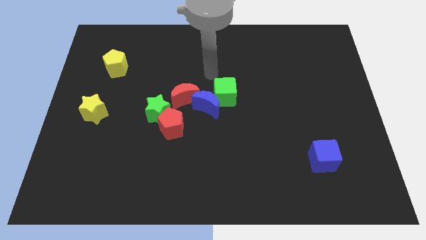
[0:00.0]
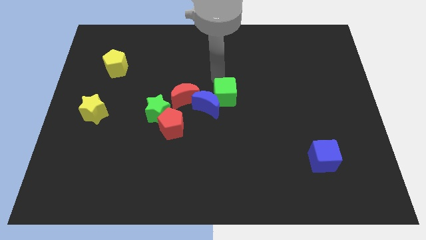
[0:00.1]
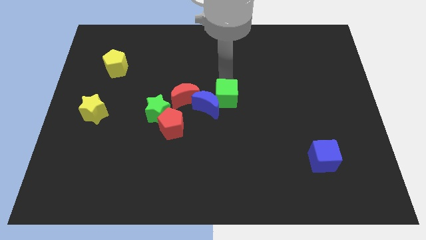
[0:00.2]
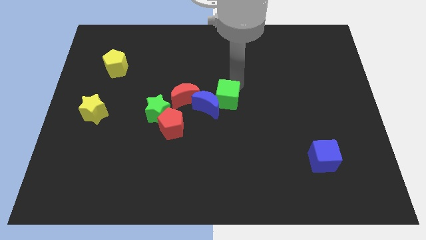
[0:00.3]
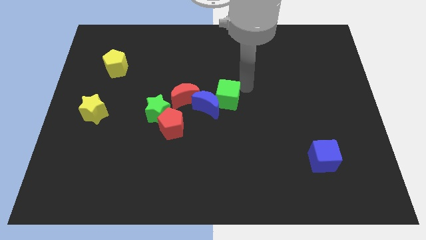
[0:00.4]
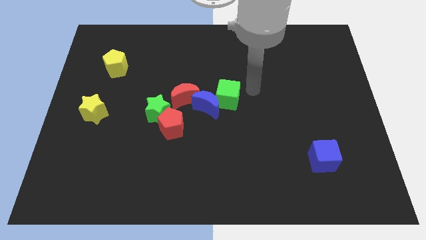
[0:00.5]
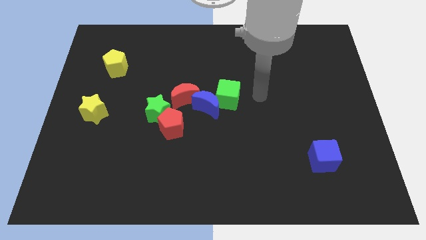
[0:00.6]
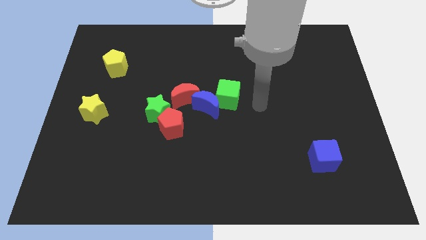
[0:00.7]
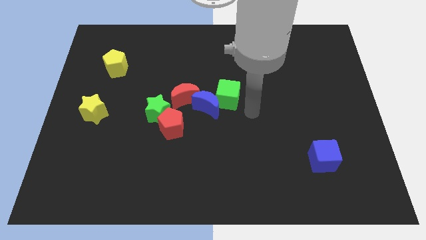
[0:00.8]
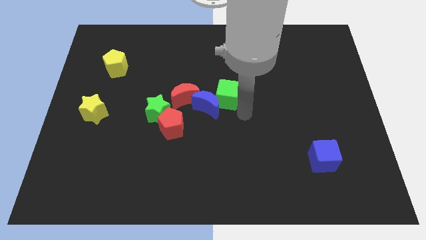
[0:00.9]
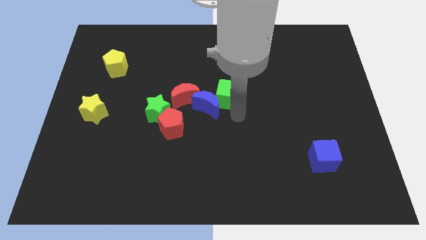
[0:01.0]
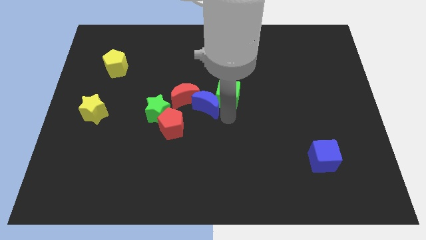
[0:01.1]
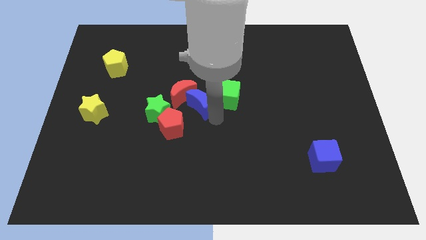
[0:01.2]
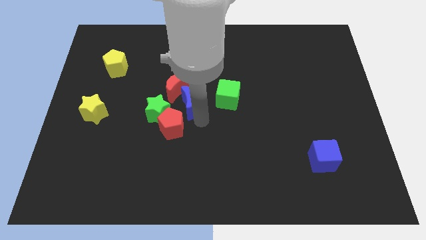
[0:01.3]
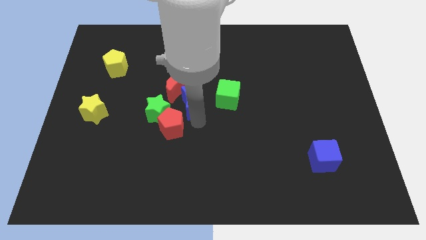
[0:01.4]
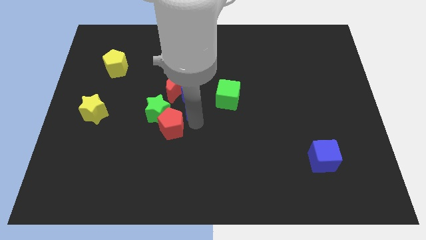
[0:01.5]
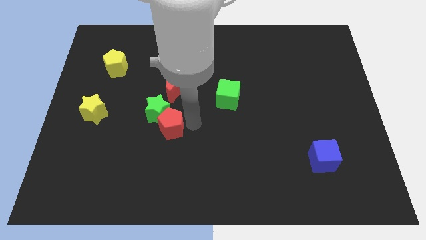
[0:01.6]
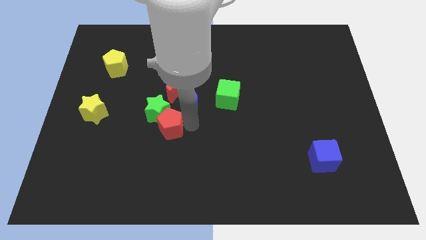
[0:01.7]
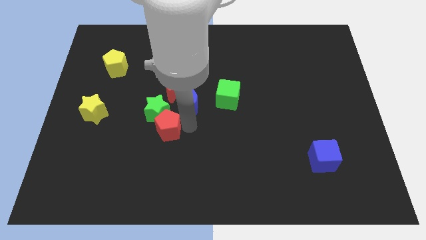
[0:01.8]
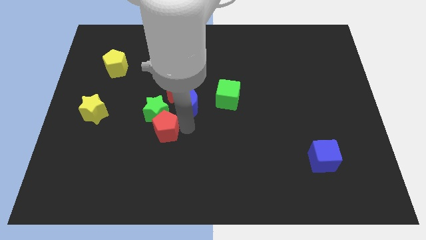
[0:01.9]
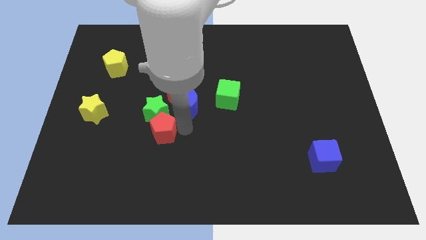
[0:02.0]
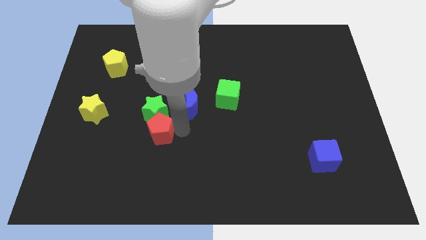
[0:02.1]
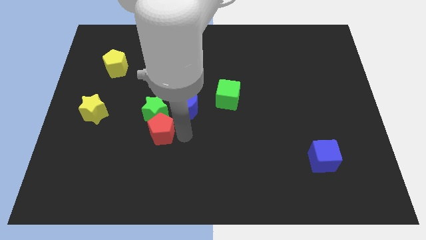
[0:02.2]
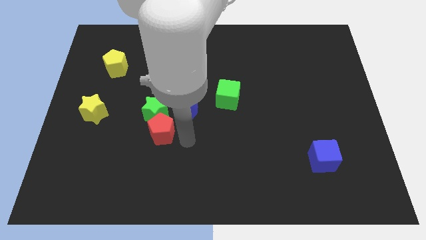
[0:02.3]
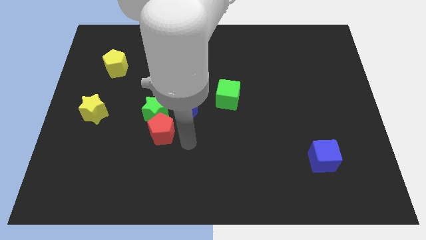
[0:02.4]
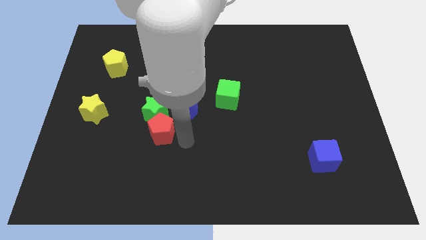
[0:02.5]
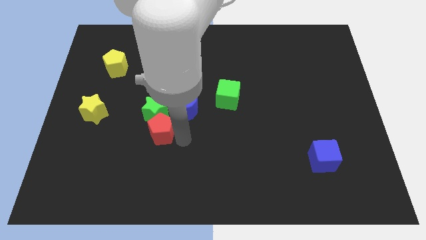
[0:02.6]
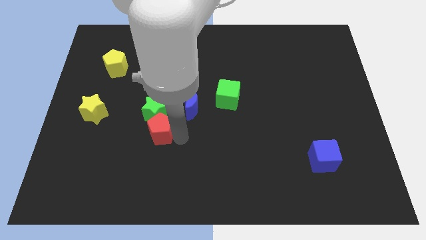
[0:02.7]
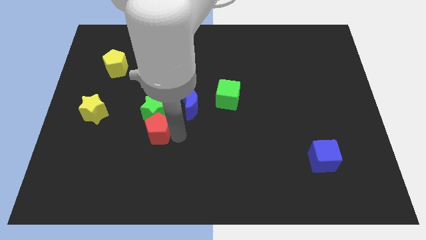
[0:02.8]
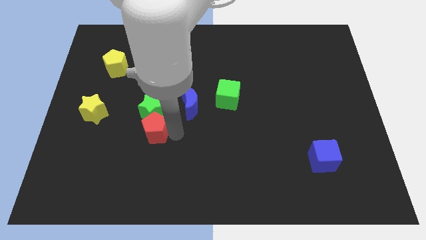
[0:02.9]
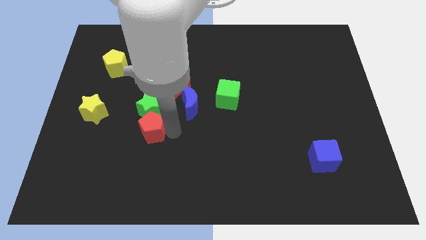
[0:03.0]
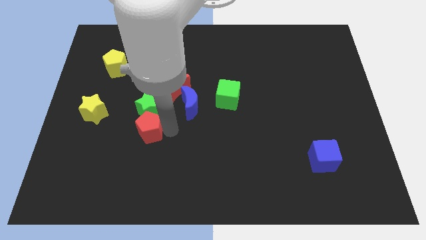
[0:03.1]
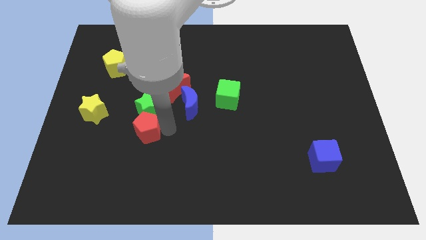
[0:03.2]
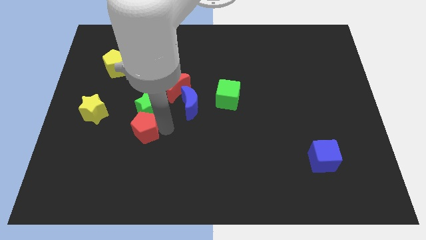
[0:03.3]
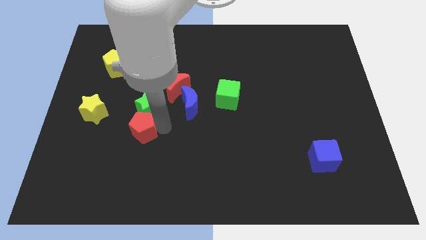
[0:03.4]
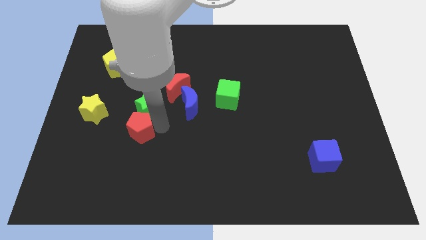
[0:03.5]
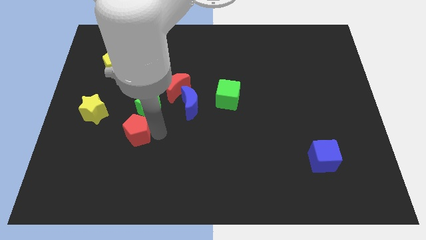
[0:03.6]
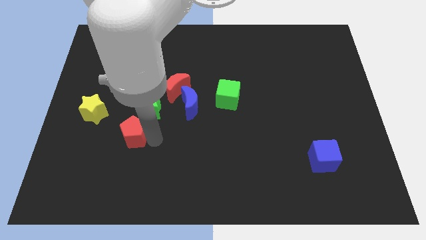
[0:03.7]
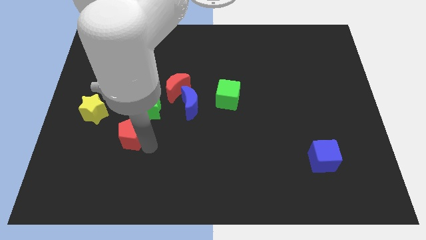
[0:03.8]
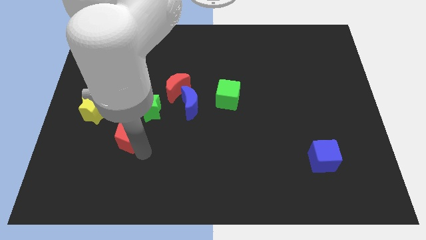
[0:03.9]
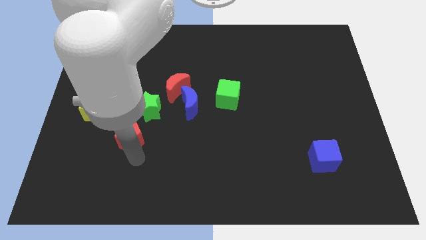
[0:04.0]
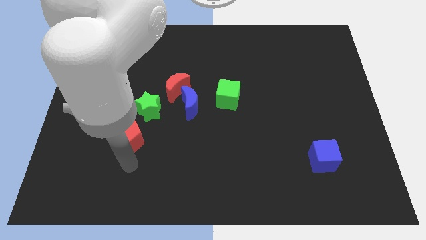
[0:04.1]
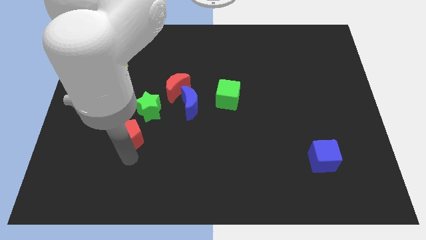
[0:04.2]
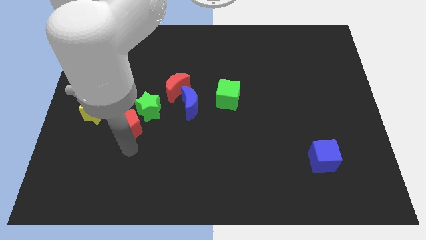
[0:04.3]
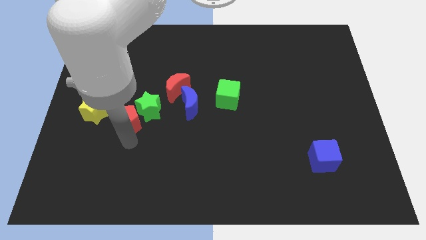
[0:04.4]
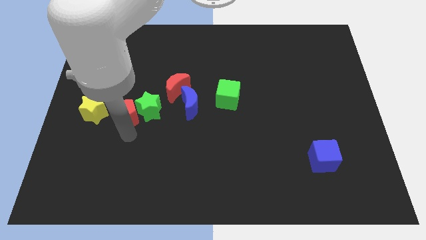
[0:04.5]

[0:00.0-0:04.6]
slide the red pentagon a little bit up and left diagonally

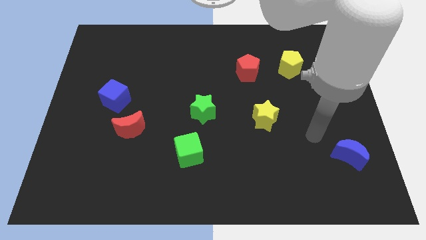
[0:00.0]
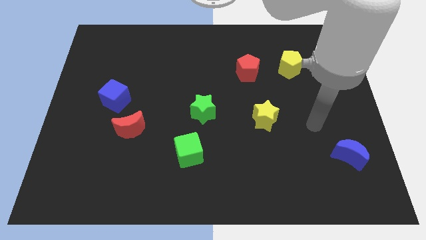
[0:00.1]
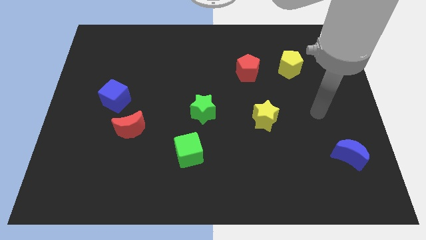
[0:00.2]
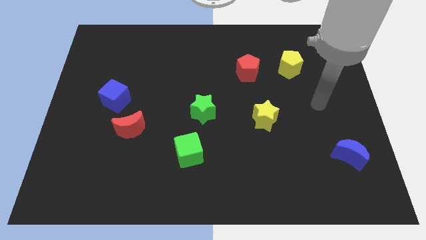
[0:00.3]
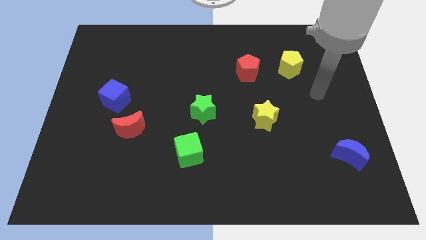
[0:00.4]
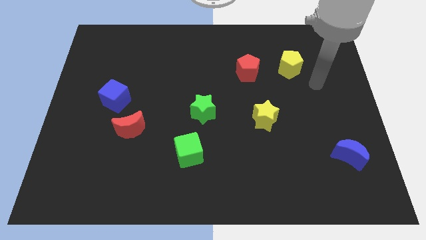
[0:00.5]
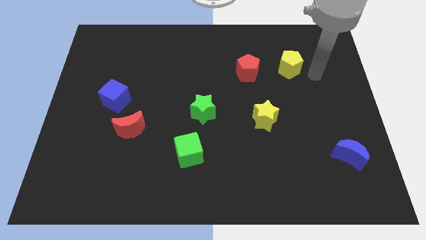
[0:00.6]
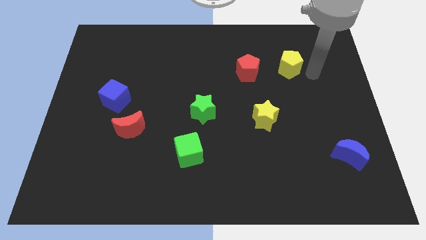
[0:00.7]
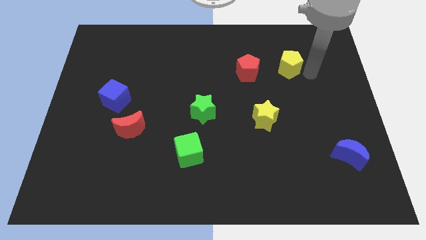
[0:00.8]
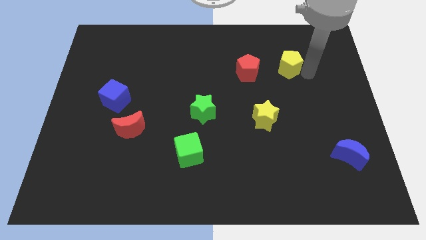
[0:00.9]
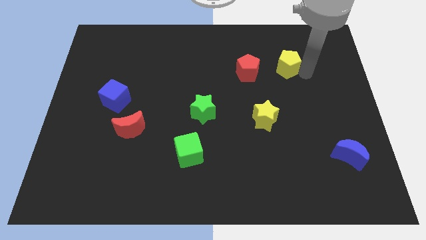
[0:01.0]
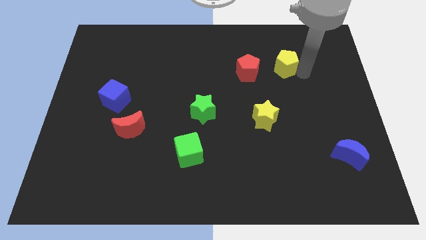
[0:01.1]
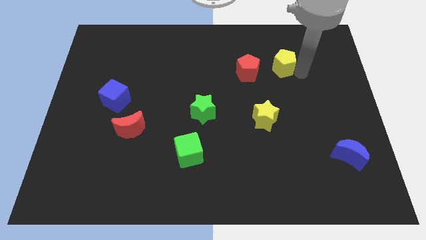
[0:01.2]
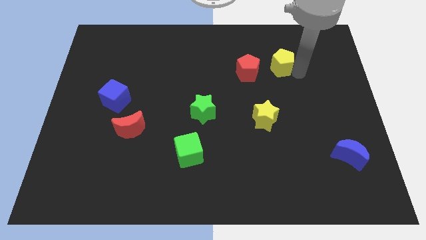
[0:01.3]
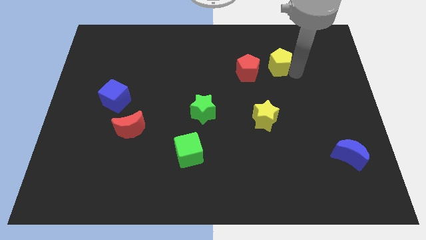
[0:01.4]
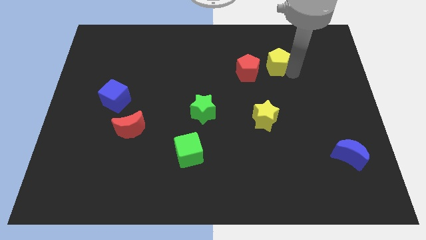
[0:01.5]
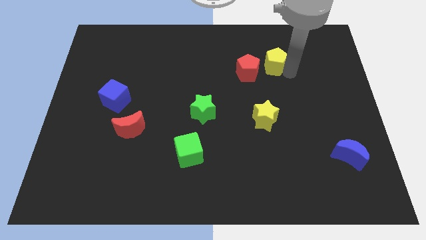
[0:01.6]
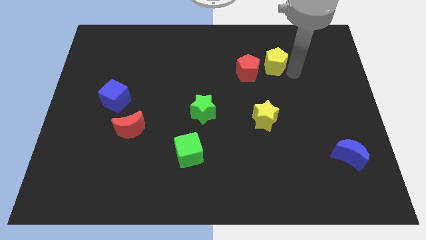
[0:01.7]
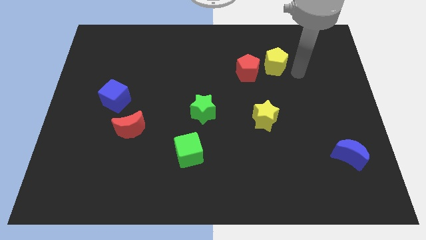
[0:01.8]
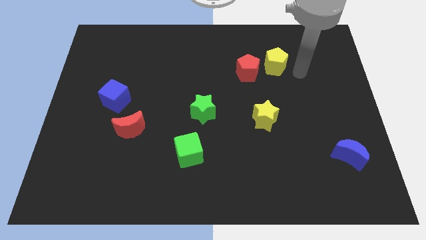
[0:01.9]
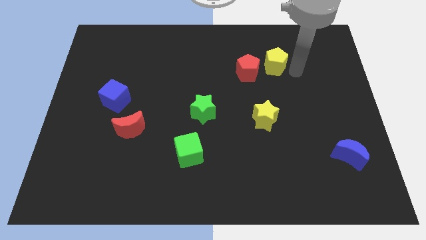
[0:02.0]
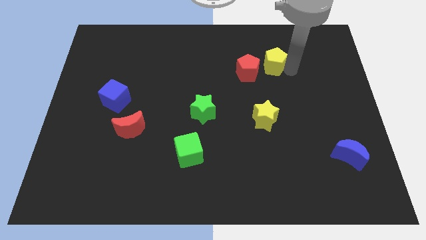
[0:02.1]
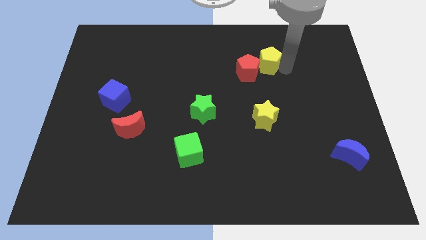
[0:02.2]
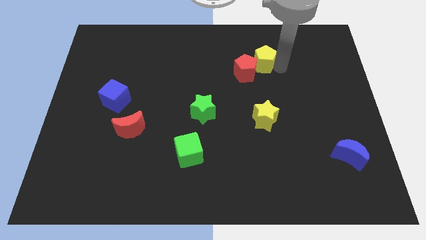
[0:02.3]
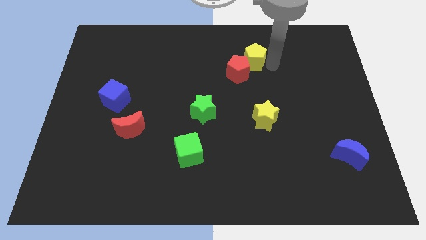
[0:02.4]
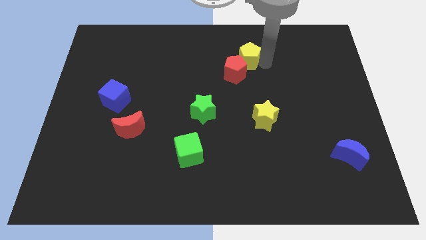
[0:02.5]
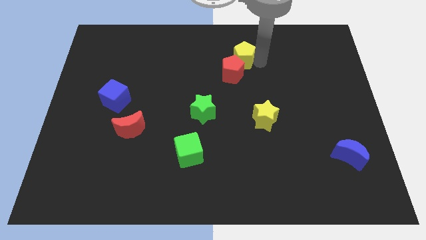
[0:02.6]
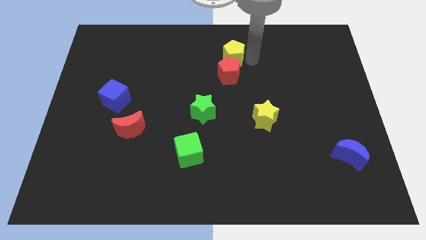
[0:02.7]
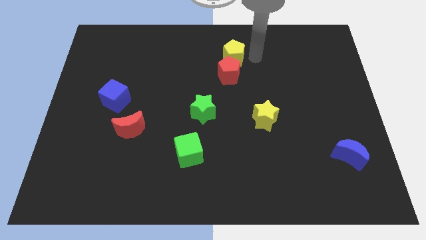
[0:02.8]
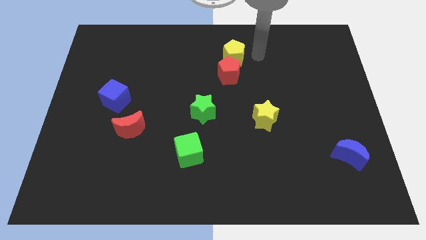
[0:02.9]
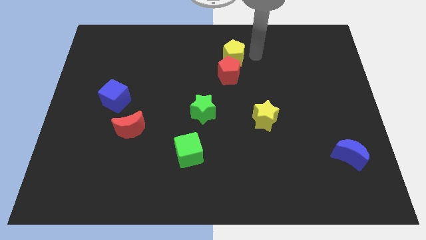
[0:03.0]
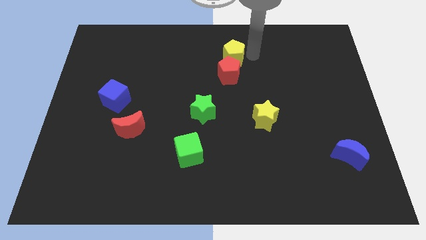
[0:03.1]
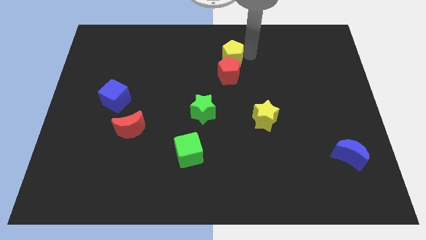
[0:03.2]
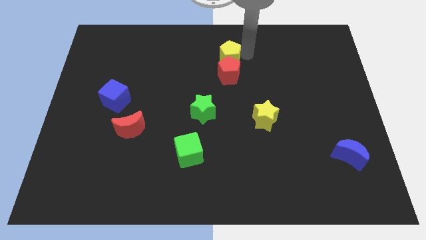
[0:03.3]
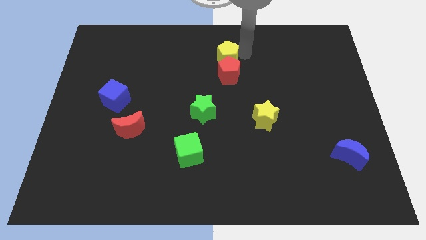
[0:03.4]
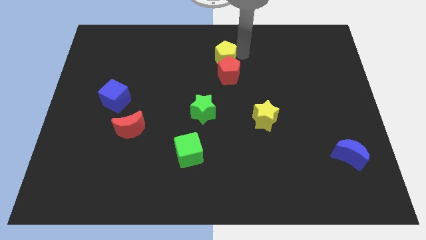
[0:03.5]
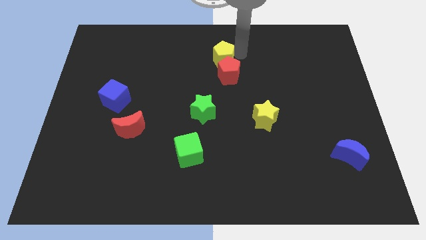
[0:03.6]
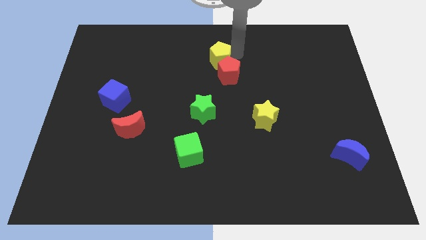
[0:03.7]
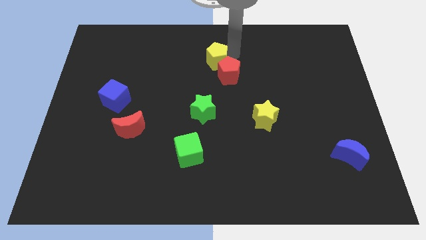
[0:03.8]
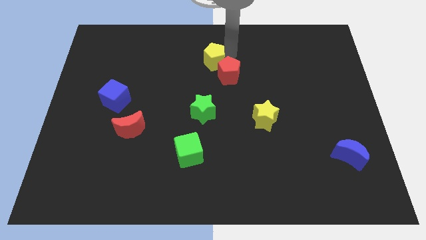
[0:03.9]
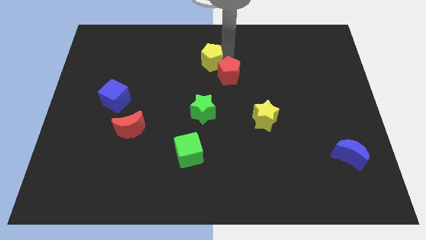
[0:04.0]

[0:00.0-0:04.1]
slide the yellow pentagon left
